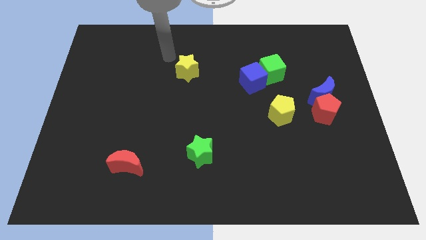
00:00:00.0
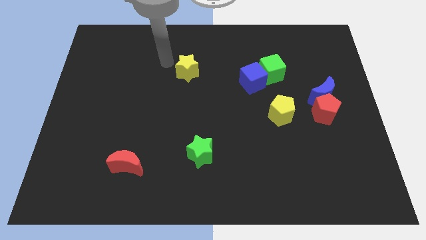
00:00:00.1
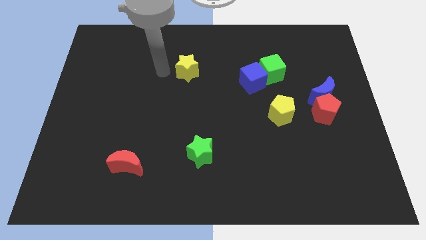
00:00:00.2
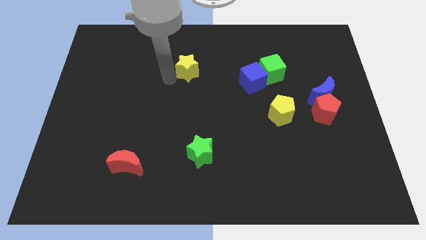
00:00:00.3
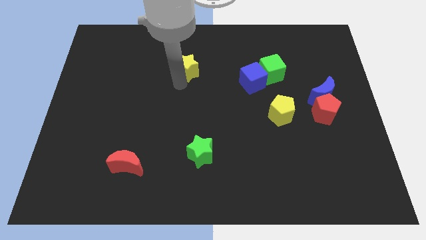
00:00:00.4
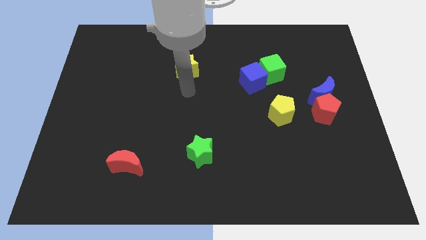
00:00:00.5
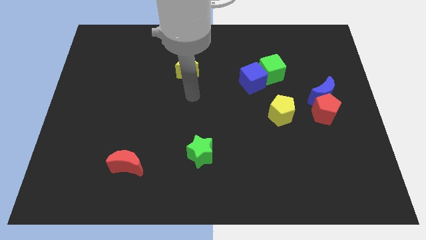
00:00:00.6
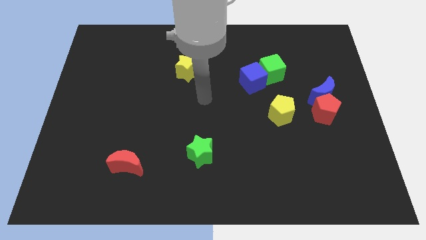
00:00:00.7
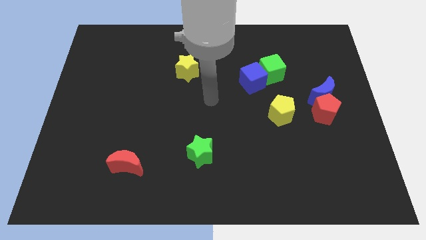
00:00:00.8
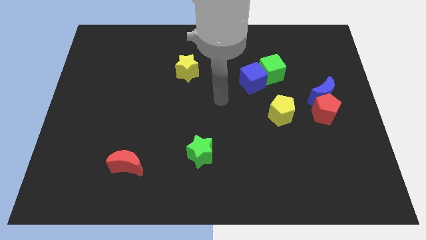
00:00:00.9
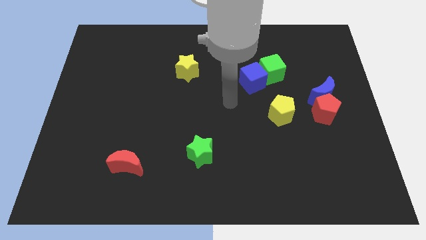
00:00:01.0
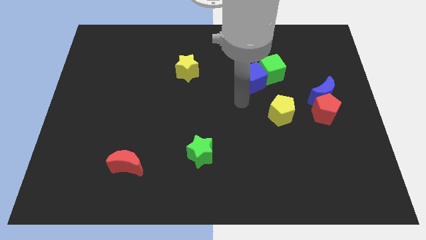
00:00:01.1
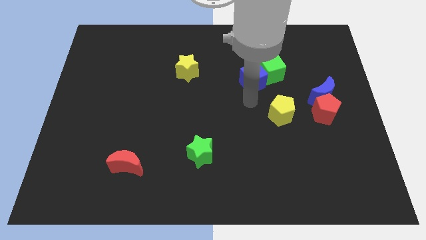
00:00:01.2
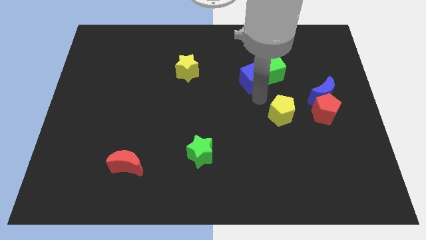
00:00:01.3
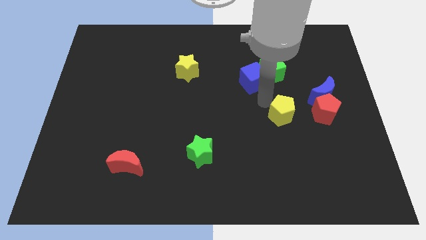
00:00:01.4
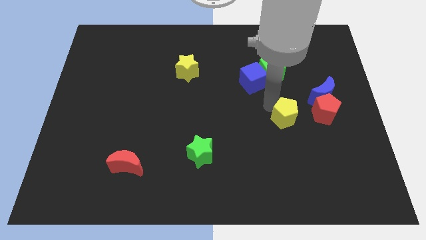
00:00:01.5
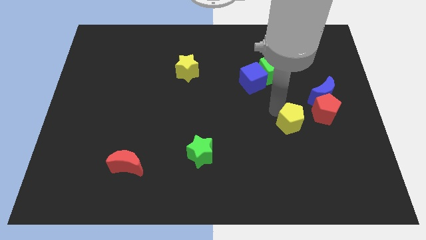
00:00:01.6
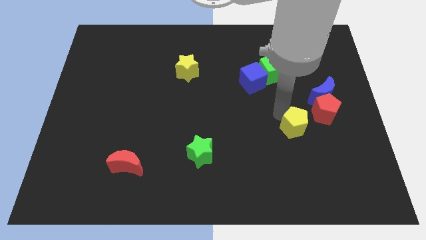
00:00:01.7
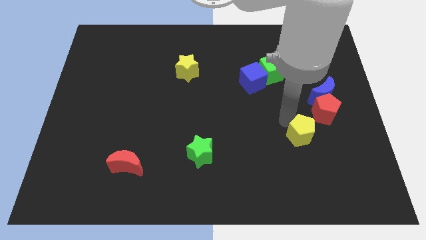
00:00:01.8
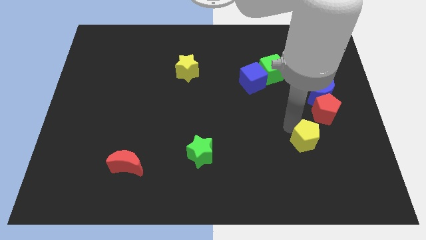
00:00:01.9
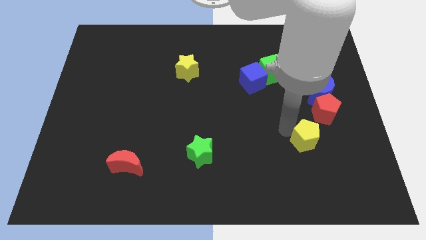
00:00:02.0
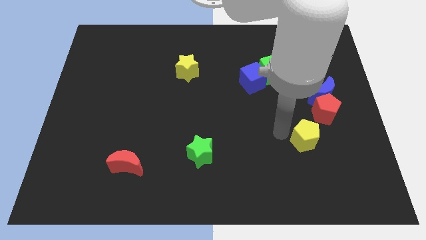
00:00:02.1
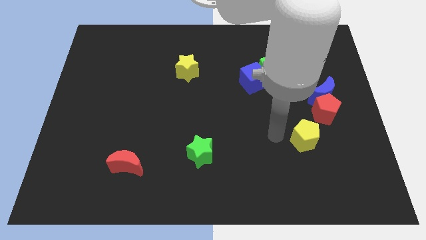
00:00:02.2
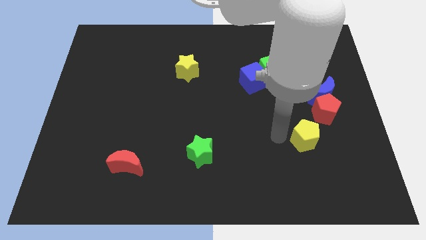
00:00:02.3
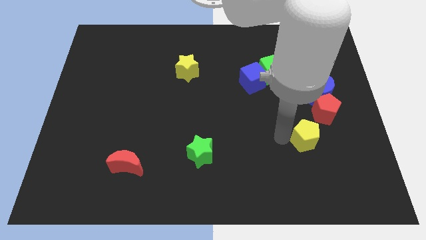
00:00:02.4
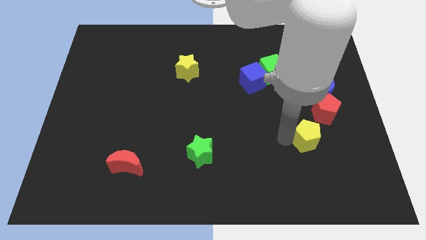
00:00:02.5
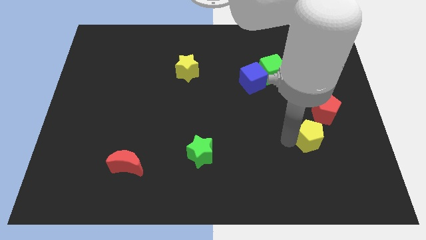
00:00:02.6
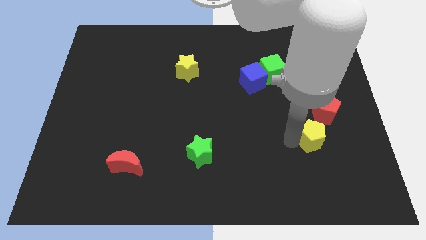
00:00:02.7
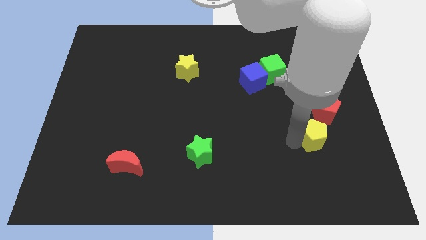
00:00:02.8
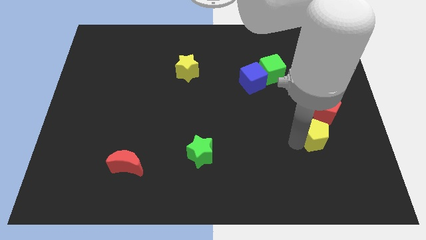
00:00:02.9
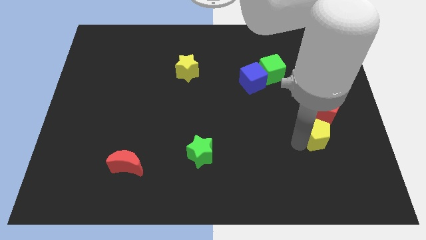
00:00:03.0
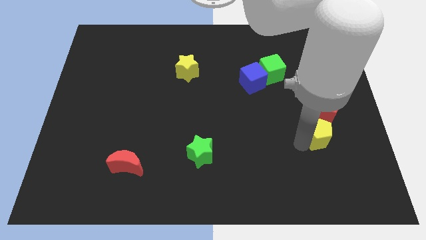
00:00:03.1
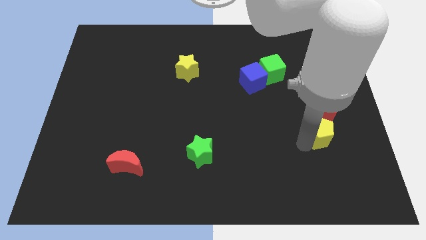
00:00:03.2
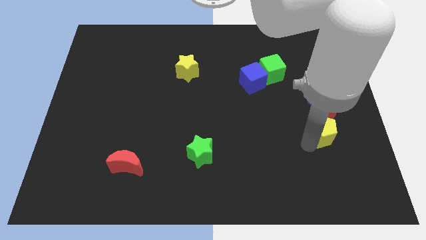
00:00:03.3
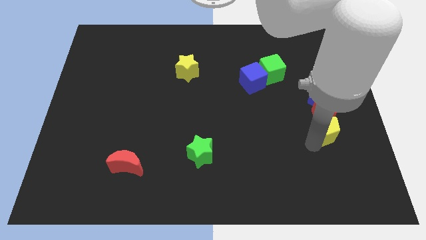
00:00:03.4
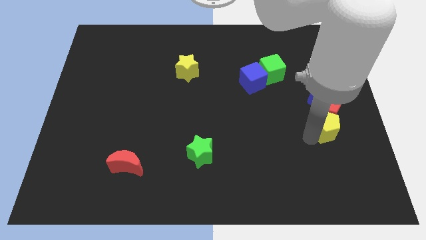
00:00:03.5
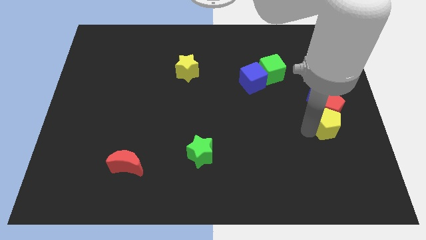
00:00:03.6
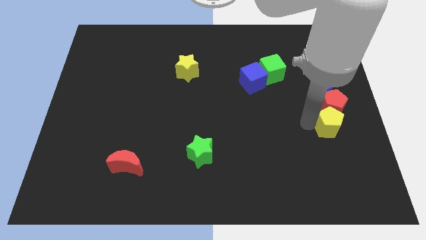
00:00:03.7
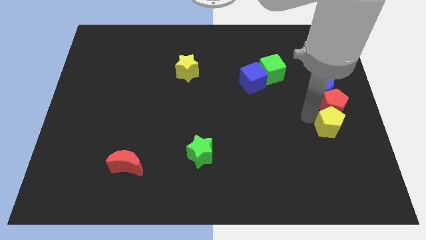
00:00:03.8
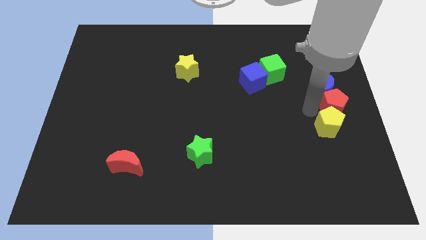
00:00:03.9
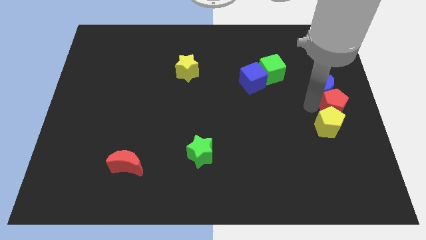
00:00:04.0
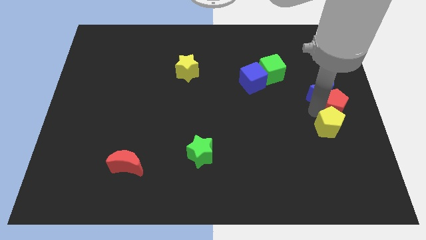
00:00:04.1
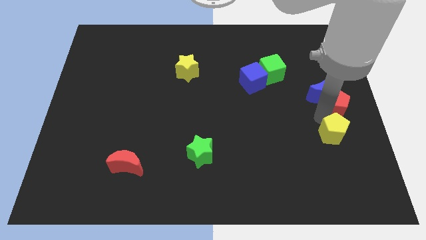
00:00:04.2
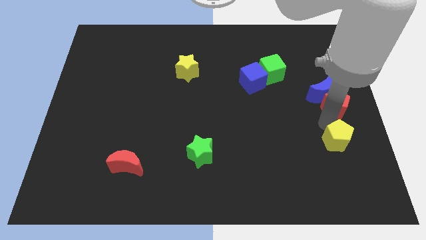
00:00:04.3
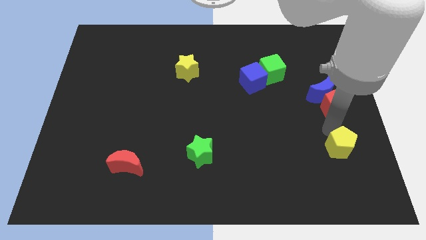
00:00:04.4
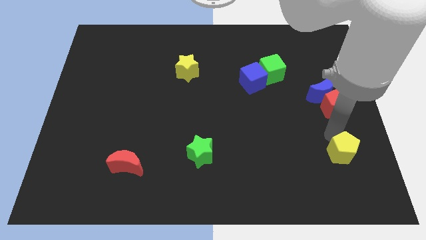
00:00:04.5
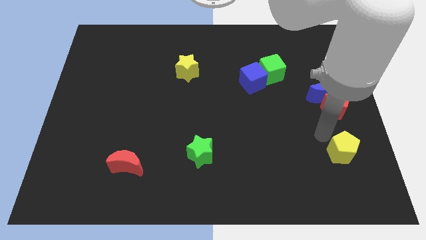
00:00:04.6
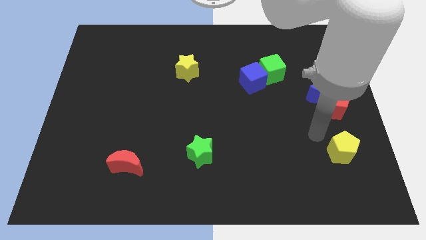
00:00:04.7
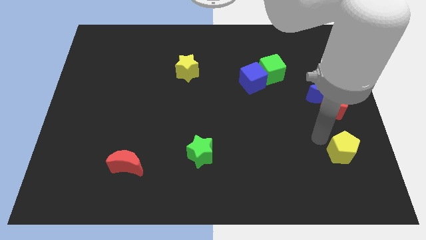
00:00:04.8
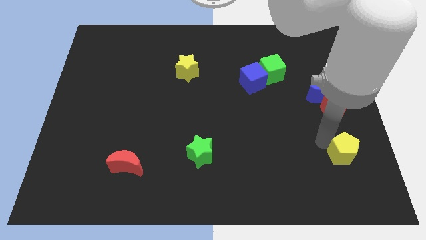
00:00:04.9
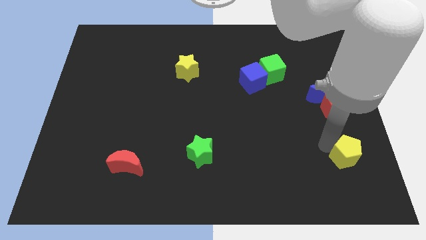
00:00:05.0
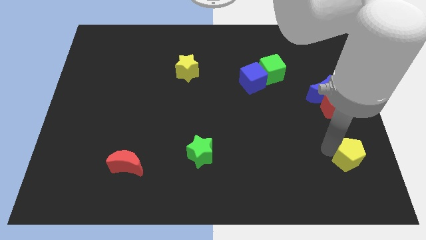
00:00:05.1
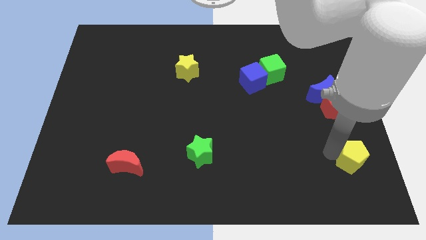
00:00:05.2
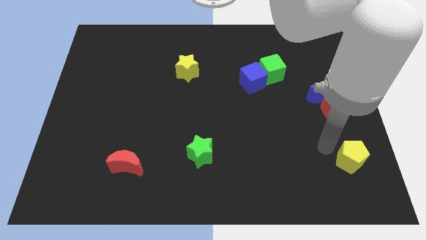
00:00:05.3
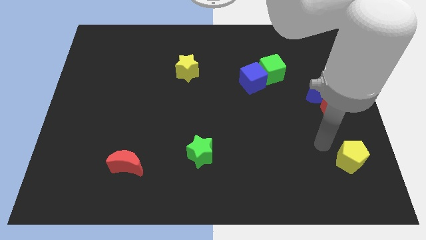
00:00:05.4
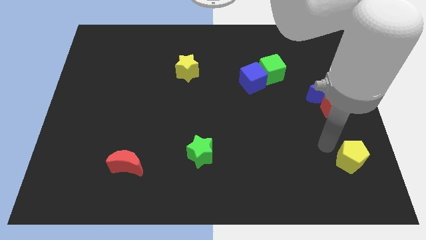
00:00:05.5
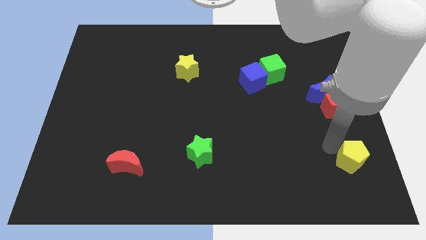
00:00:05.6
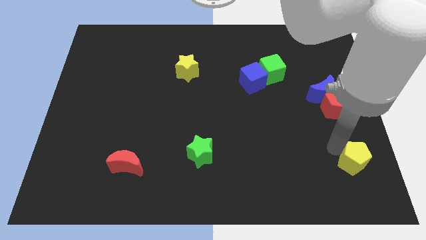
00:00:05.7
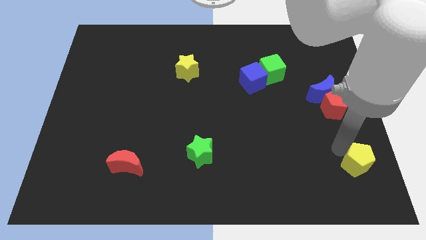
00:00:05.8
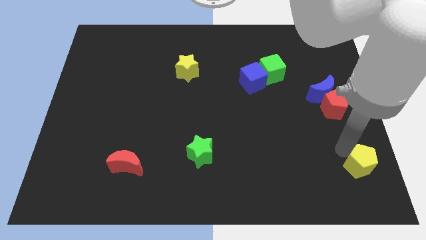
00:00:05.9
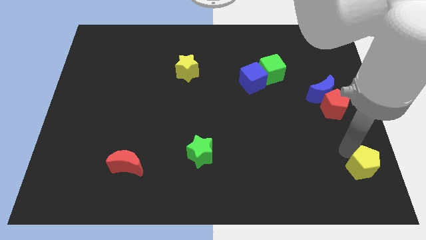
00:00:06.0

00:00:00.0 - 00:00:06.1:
push the yellow pentagon to the lower right corner
